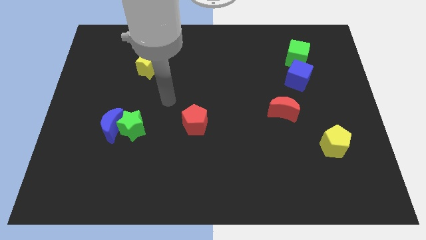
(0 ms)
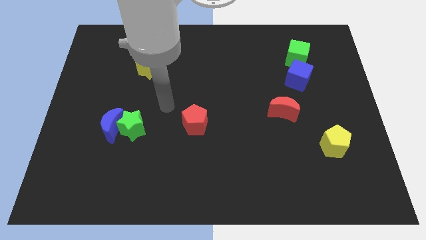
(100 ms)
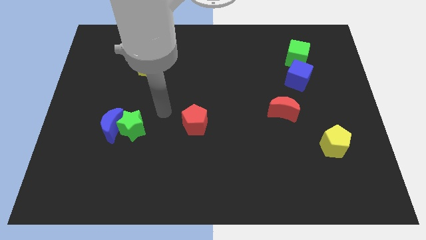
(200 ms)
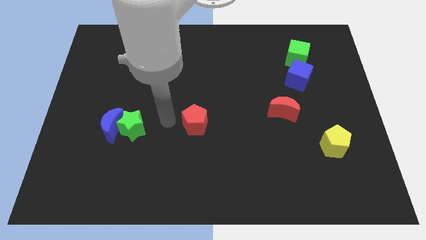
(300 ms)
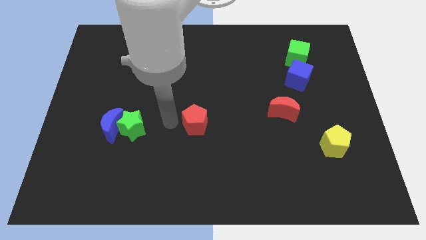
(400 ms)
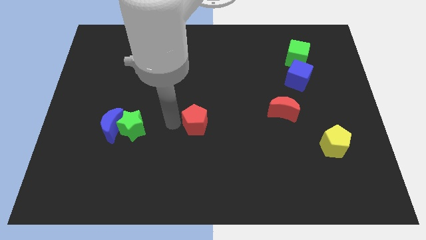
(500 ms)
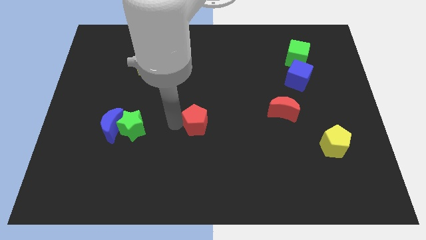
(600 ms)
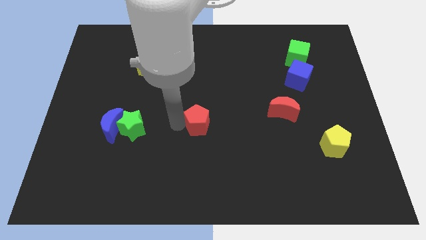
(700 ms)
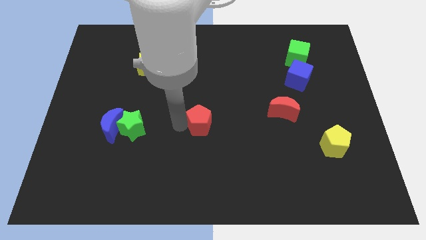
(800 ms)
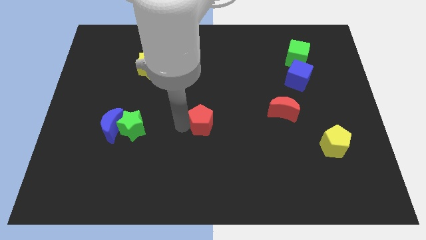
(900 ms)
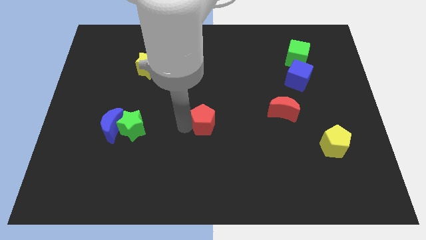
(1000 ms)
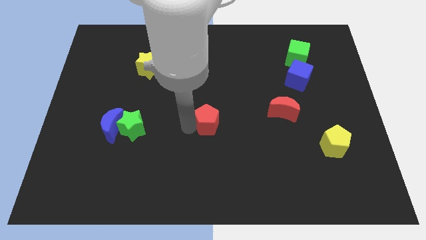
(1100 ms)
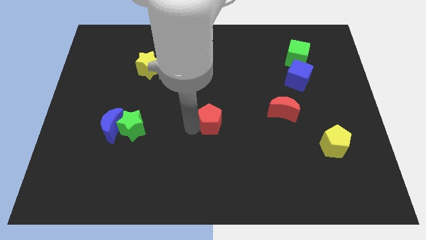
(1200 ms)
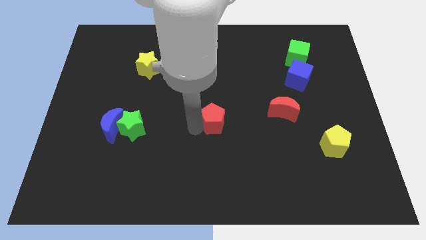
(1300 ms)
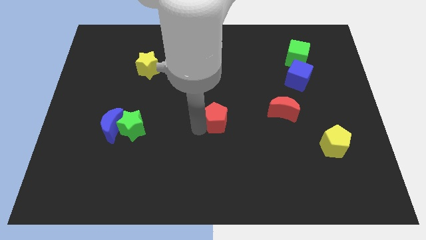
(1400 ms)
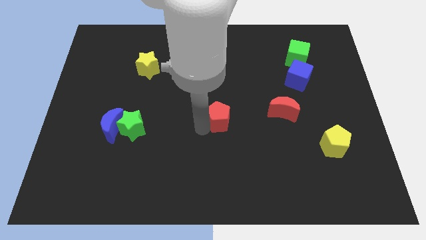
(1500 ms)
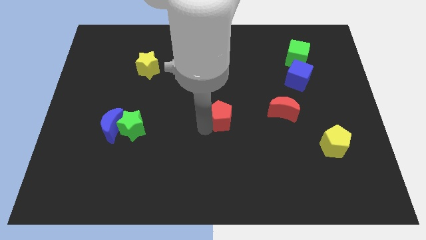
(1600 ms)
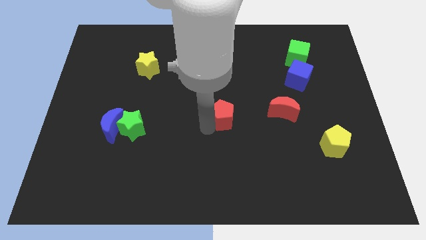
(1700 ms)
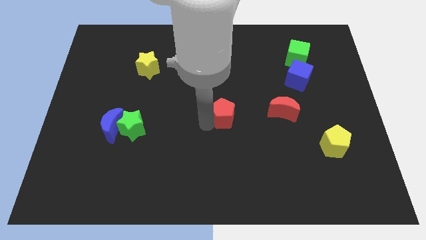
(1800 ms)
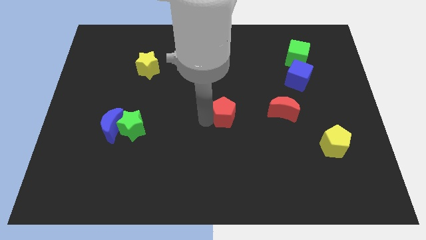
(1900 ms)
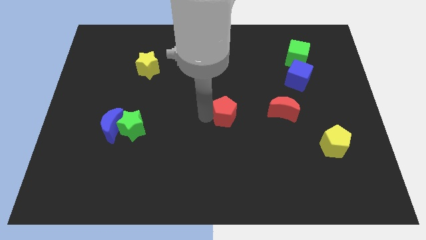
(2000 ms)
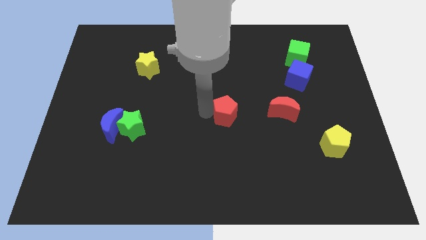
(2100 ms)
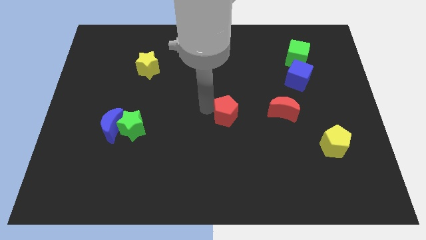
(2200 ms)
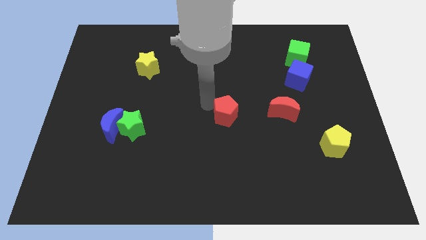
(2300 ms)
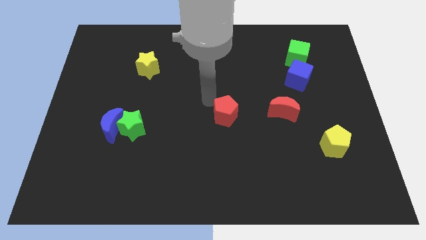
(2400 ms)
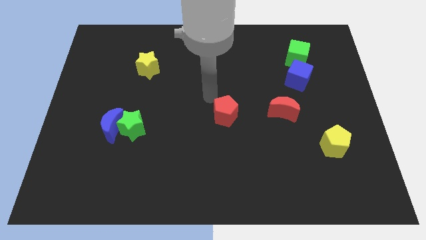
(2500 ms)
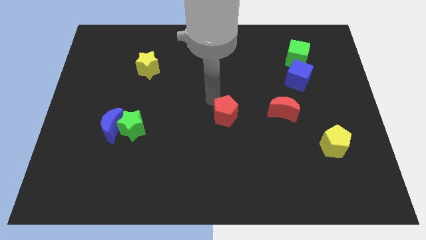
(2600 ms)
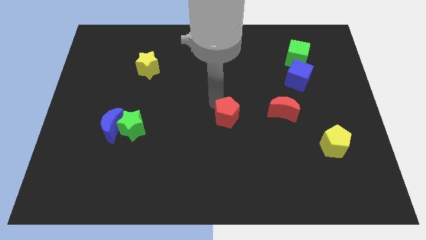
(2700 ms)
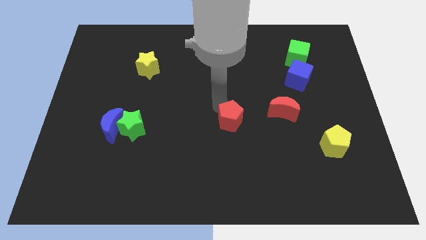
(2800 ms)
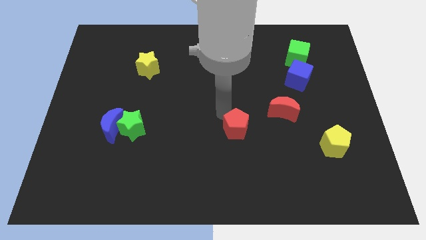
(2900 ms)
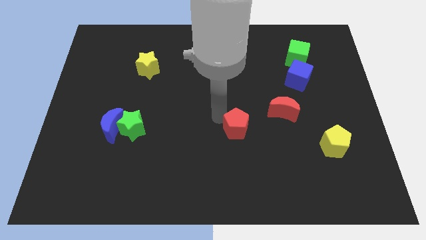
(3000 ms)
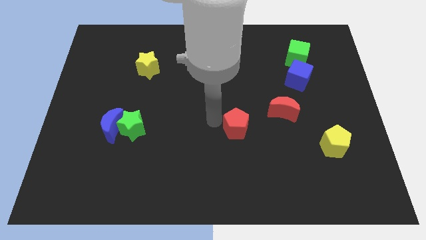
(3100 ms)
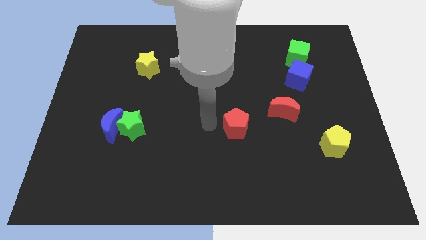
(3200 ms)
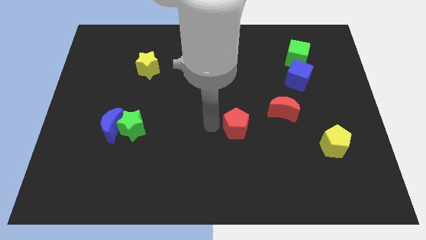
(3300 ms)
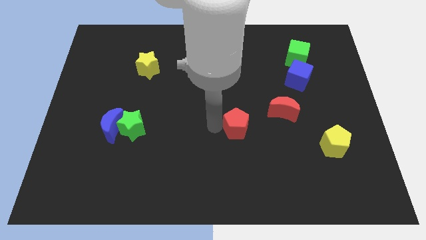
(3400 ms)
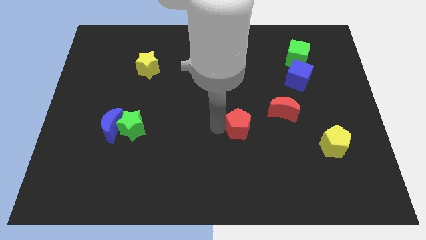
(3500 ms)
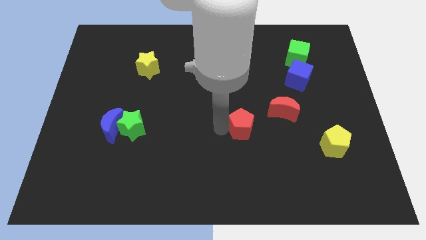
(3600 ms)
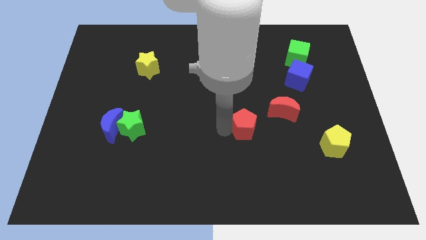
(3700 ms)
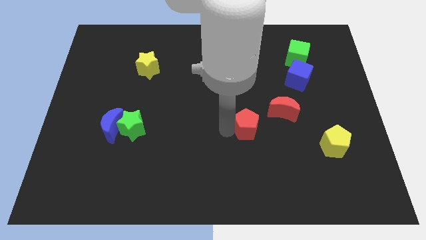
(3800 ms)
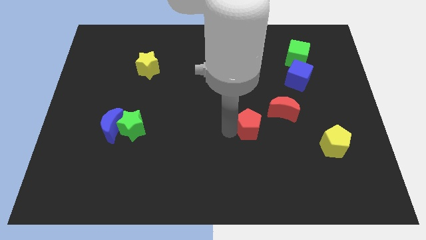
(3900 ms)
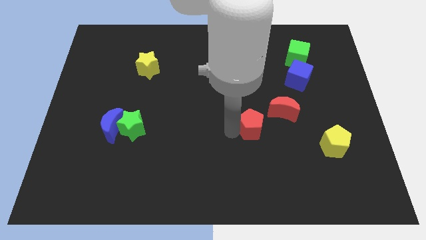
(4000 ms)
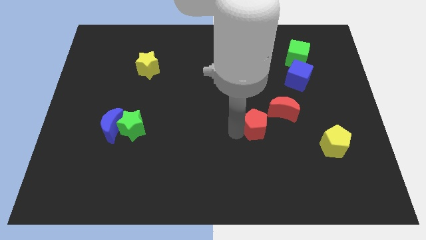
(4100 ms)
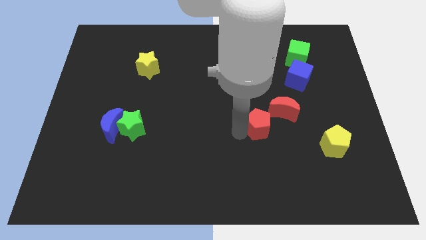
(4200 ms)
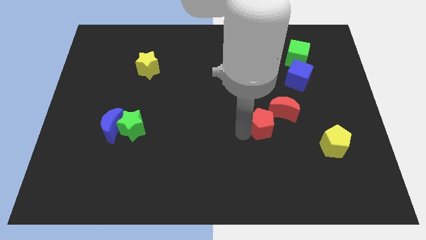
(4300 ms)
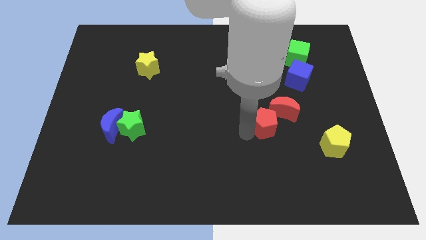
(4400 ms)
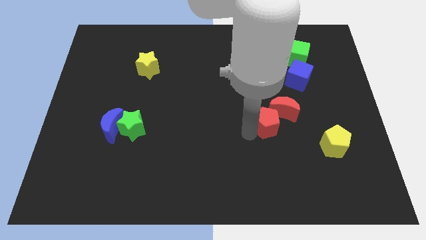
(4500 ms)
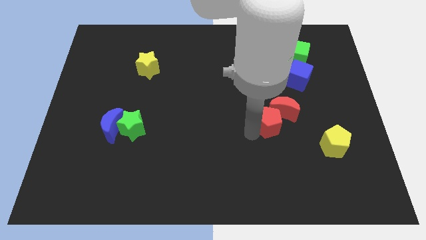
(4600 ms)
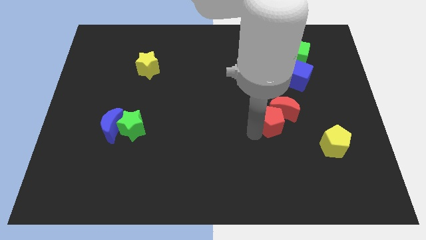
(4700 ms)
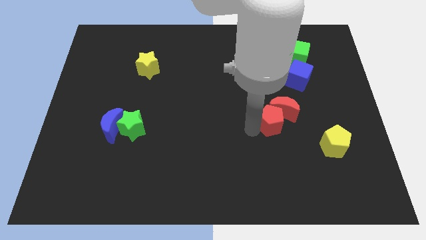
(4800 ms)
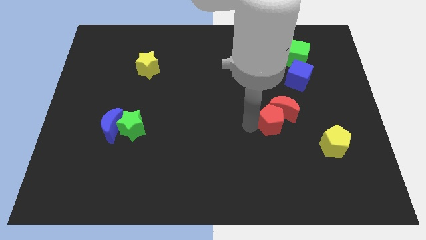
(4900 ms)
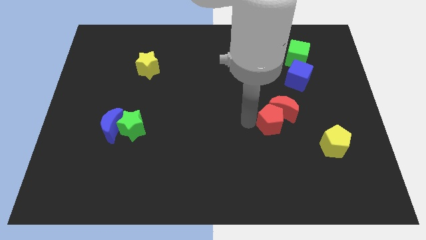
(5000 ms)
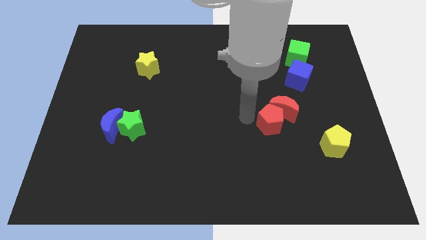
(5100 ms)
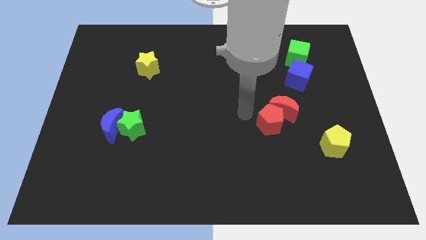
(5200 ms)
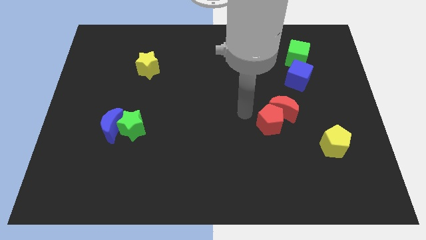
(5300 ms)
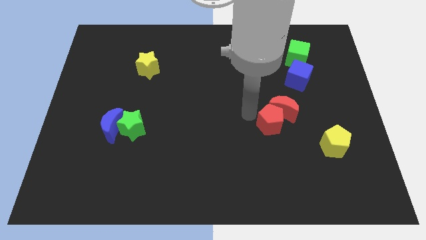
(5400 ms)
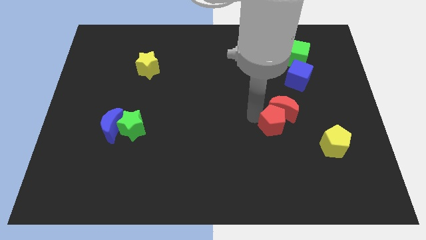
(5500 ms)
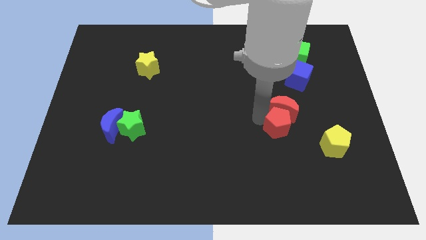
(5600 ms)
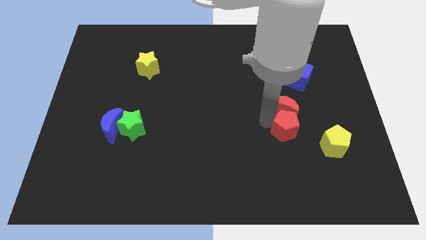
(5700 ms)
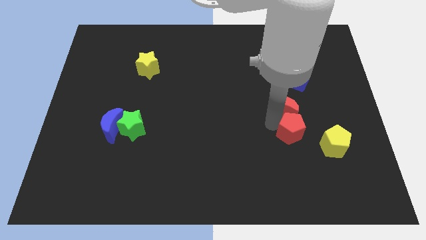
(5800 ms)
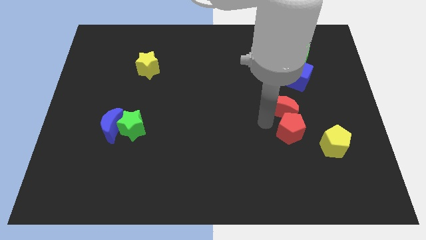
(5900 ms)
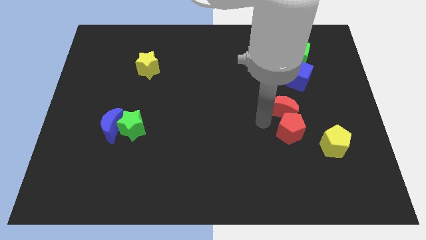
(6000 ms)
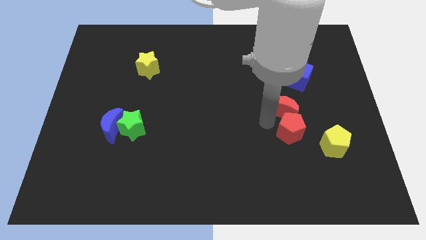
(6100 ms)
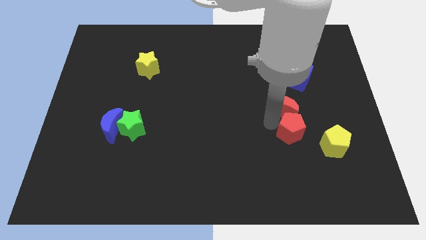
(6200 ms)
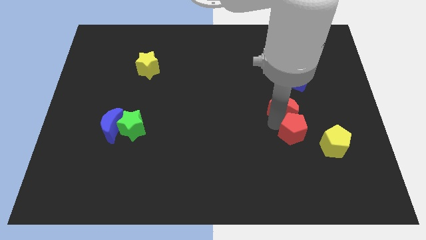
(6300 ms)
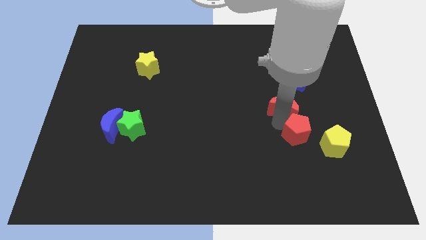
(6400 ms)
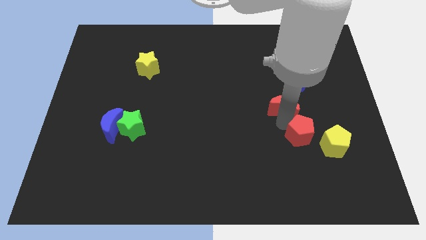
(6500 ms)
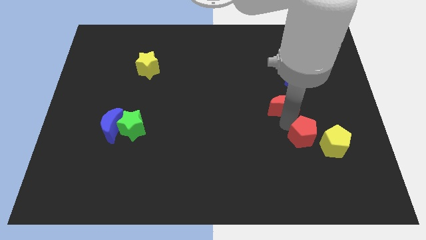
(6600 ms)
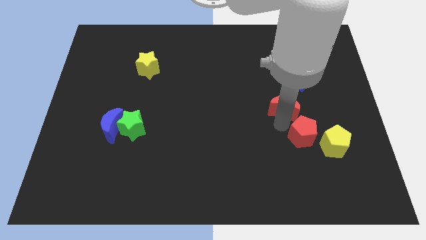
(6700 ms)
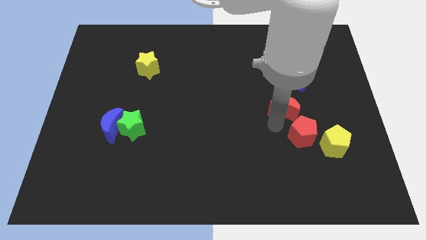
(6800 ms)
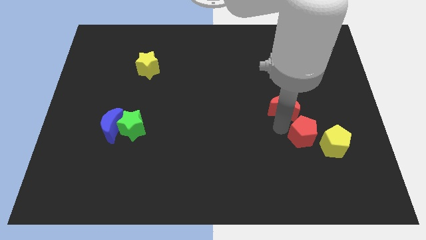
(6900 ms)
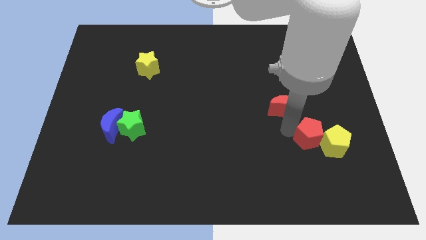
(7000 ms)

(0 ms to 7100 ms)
move the red pentagon towards the yellow pentagon

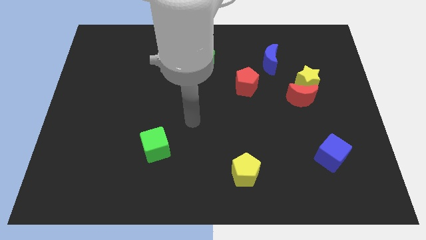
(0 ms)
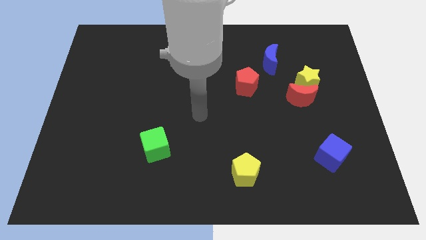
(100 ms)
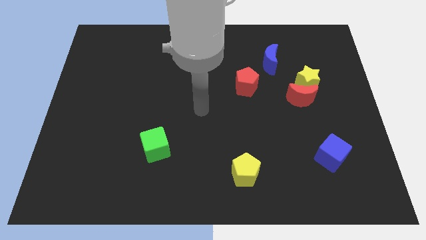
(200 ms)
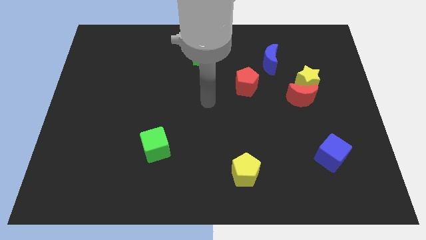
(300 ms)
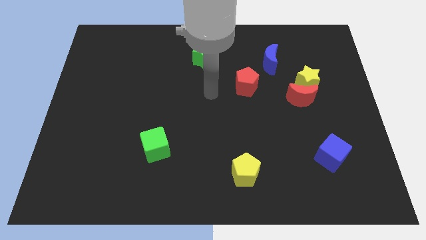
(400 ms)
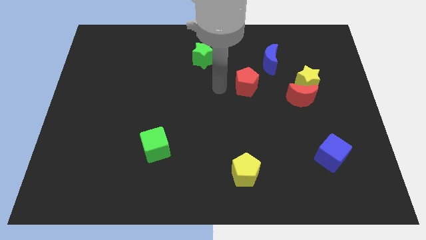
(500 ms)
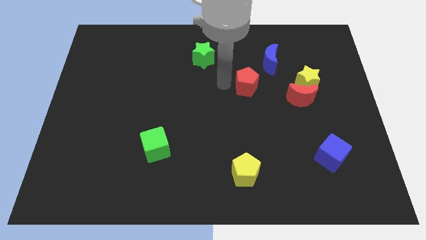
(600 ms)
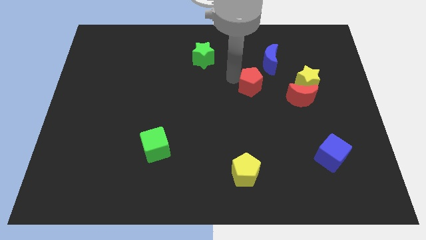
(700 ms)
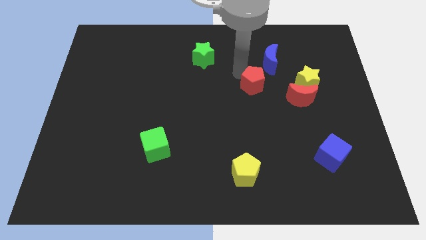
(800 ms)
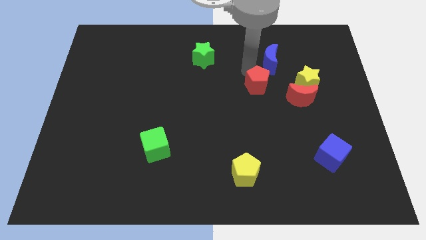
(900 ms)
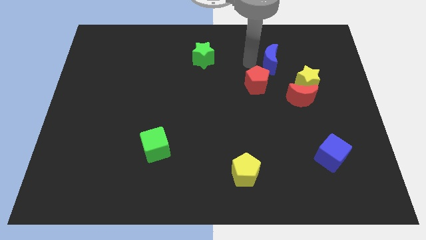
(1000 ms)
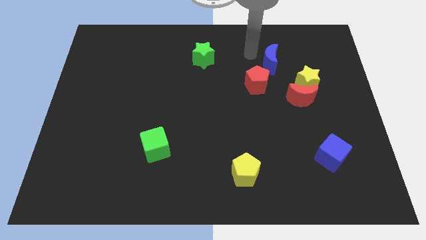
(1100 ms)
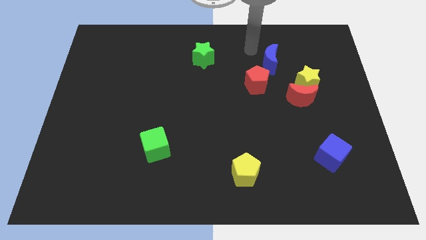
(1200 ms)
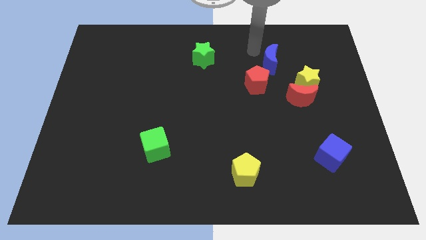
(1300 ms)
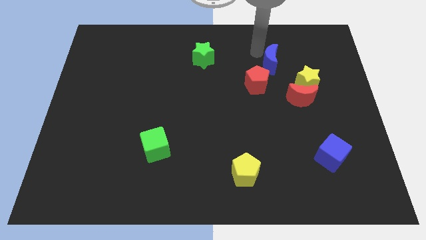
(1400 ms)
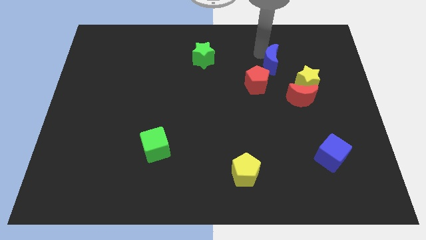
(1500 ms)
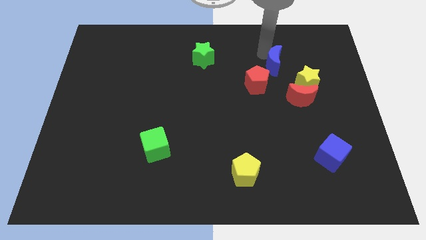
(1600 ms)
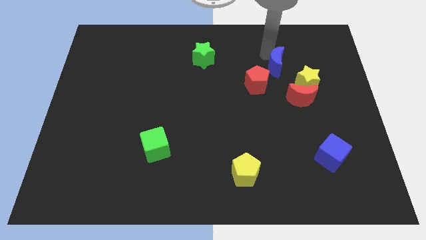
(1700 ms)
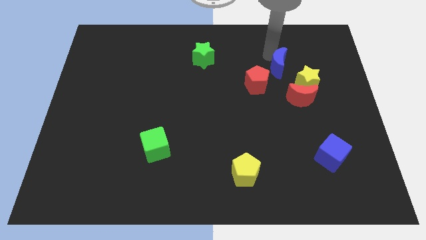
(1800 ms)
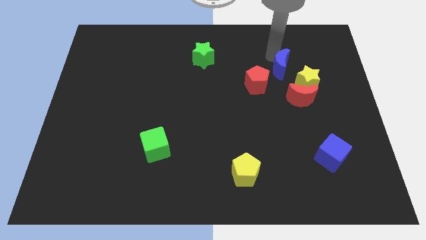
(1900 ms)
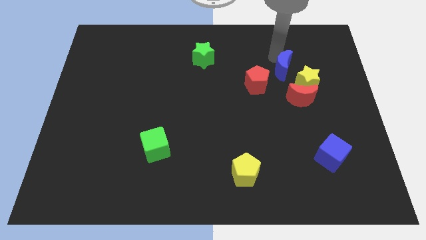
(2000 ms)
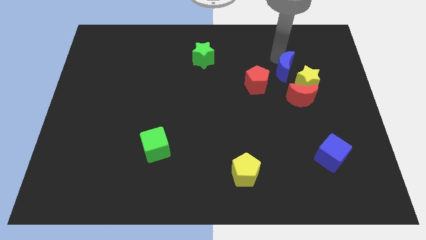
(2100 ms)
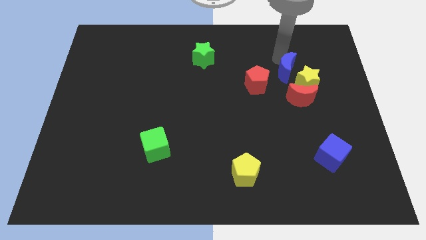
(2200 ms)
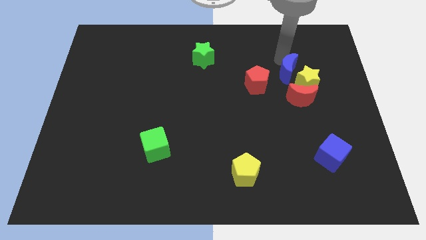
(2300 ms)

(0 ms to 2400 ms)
push the blue moon close to the yellow star
